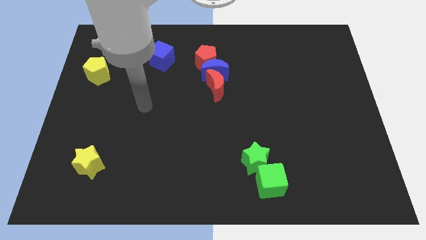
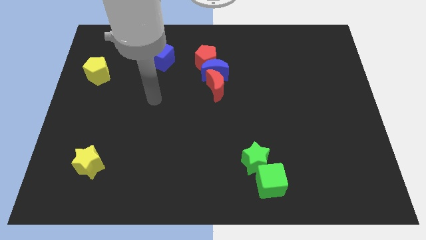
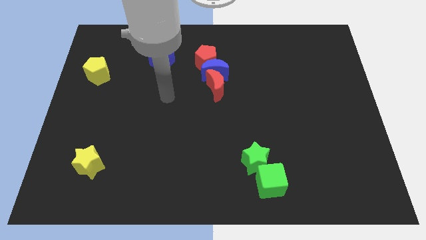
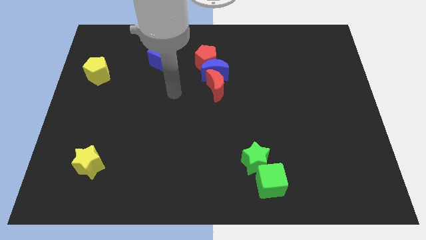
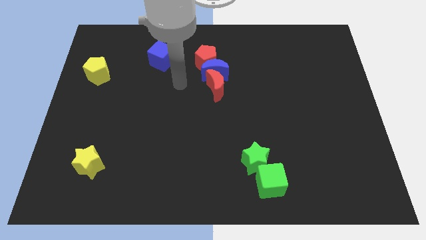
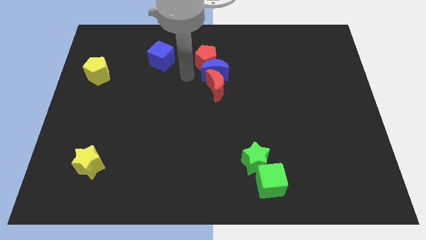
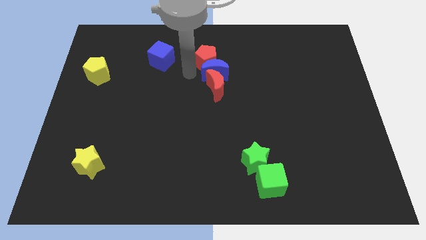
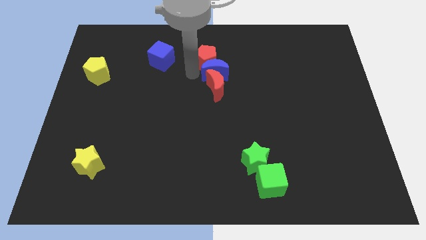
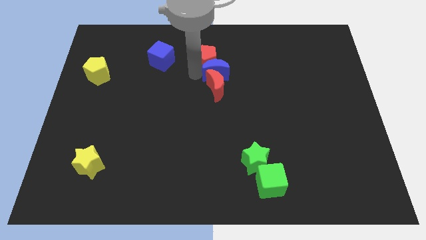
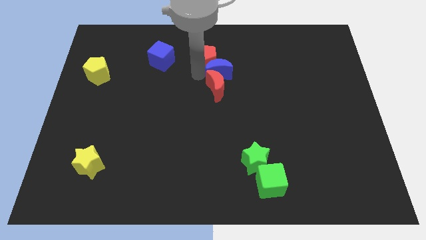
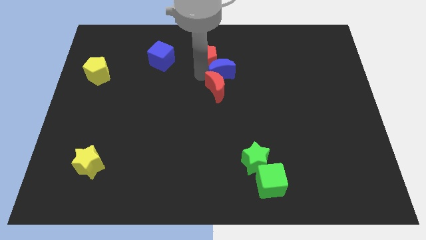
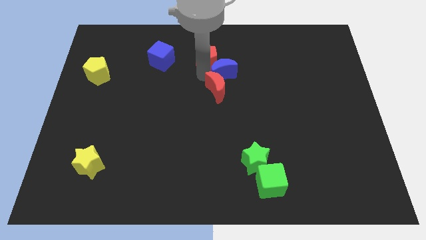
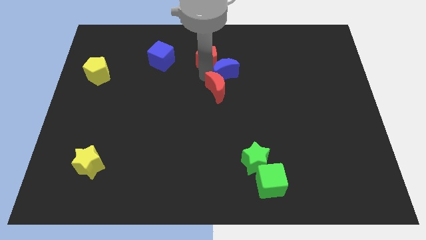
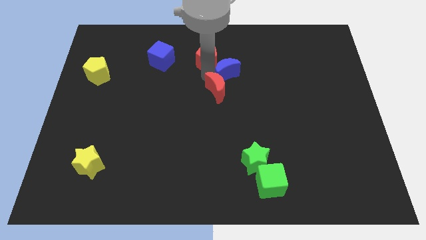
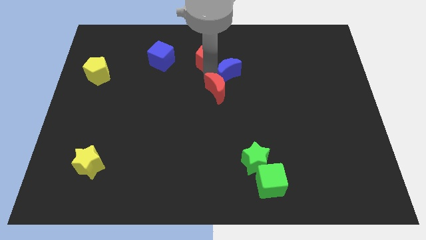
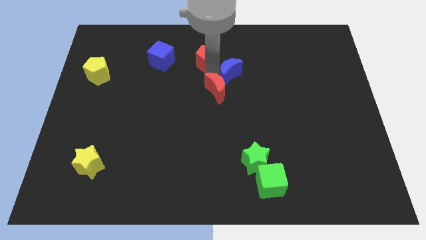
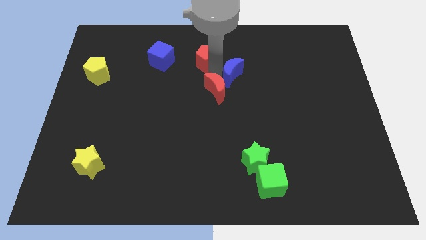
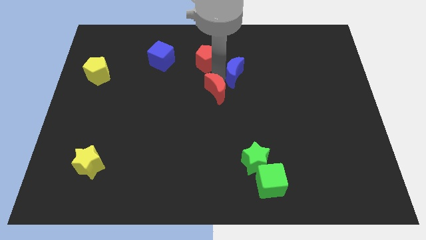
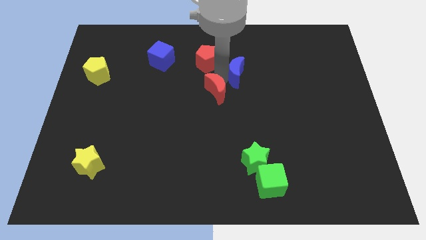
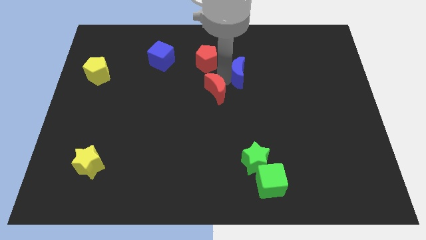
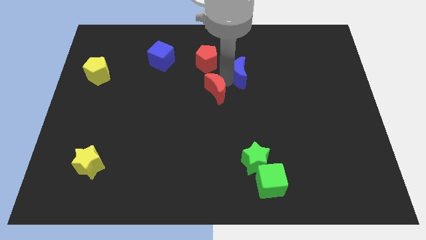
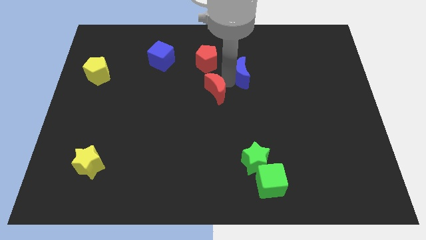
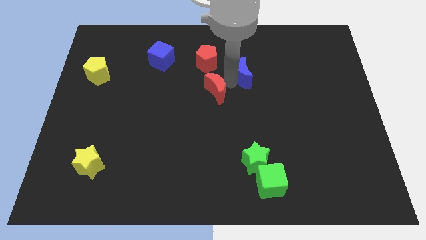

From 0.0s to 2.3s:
slightly move the blue moon right

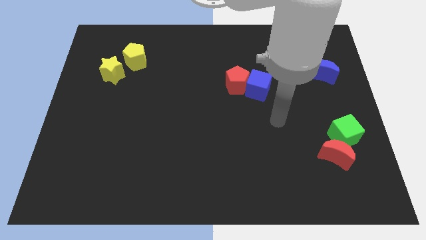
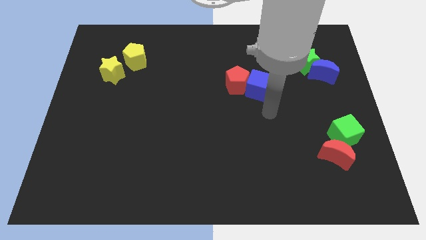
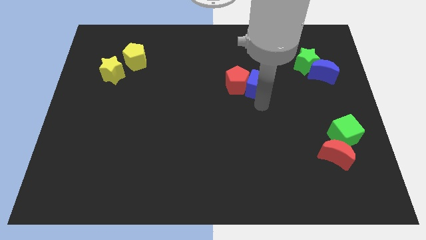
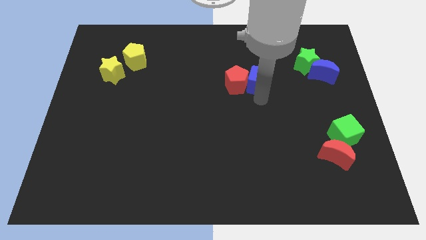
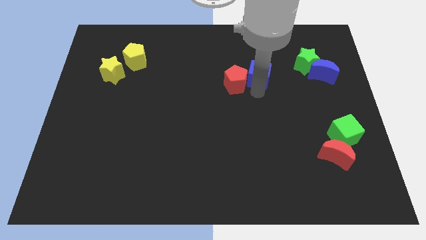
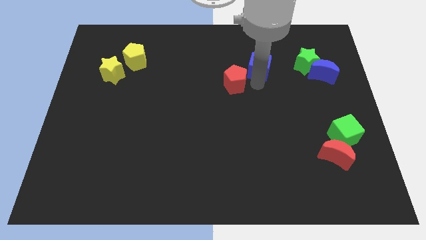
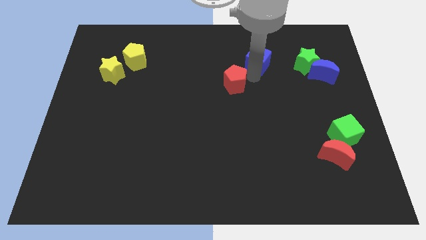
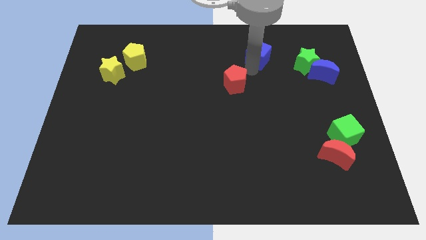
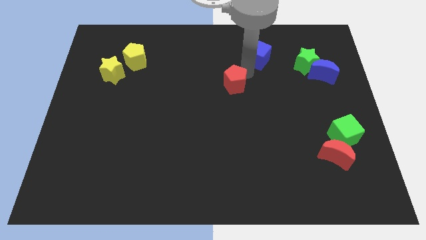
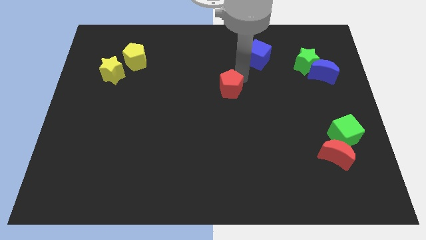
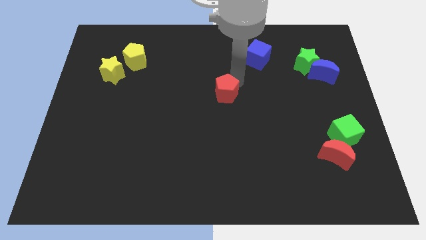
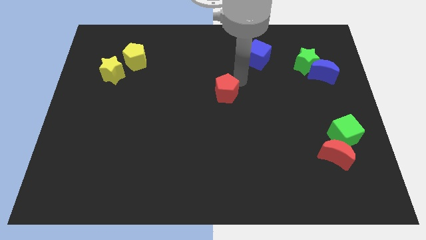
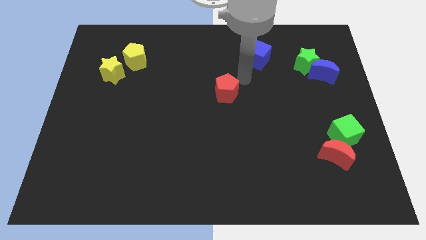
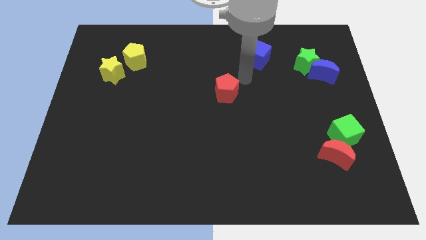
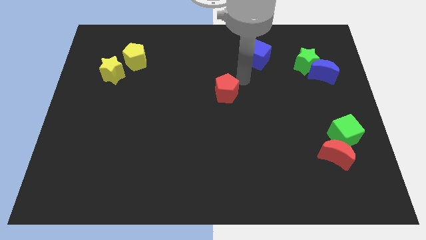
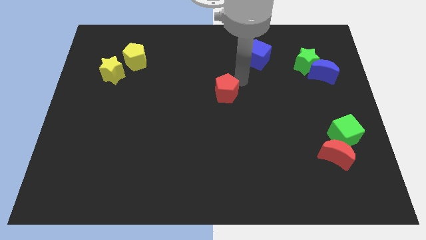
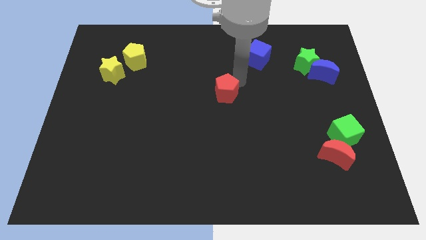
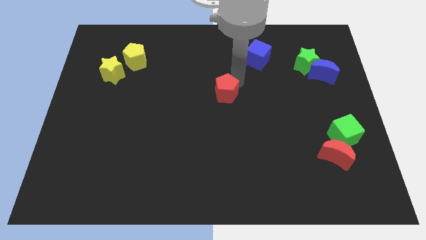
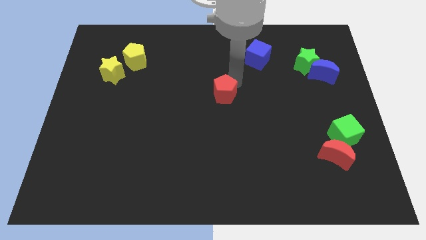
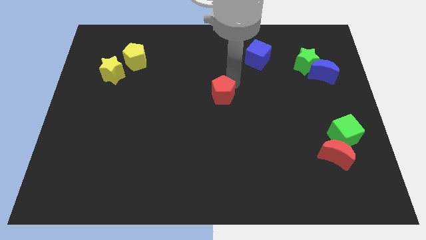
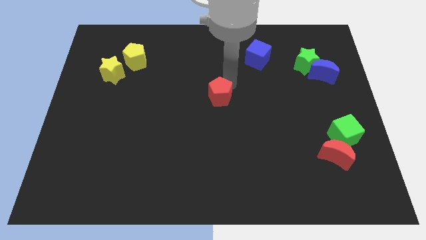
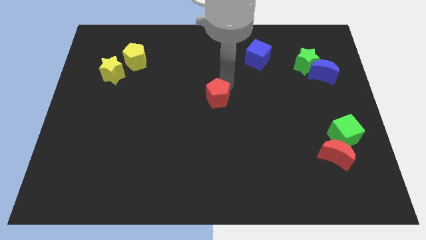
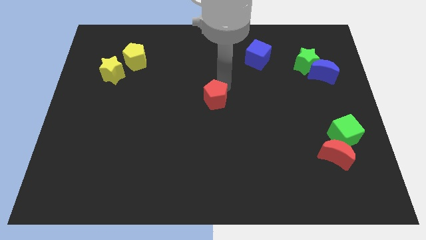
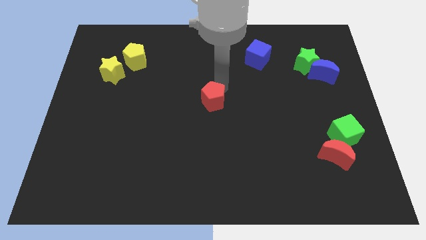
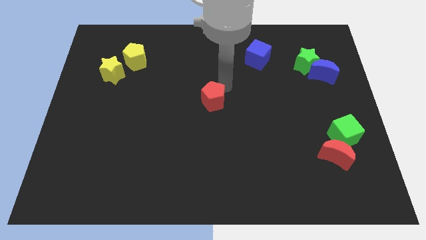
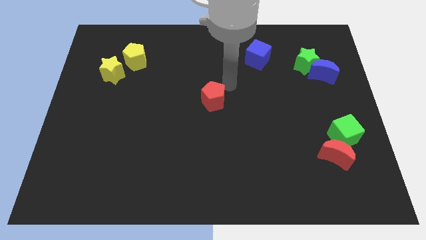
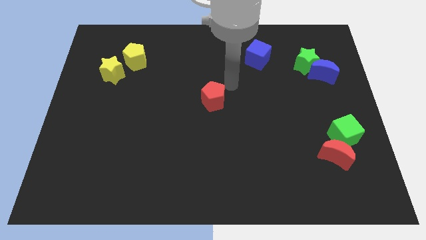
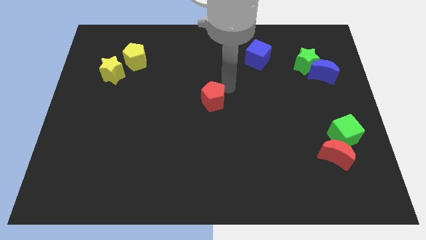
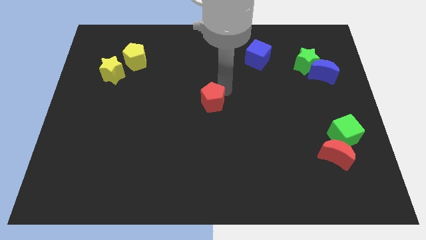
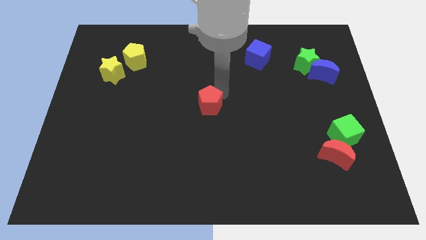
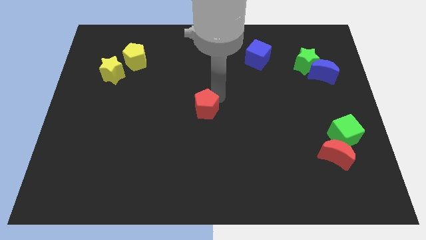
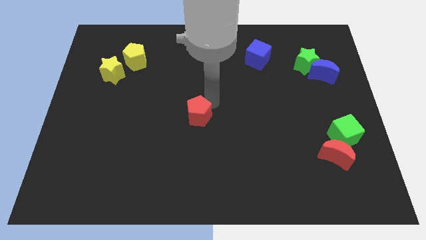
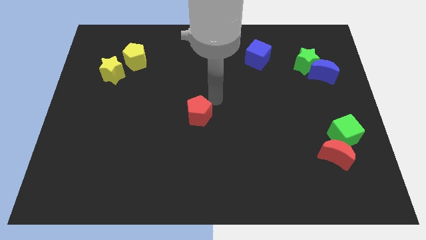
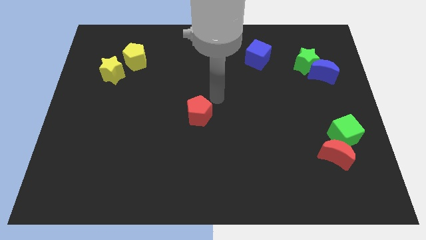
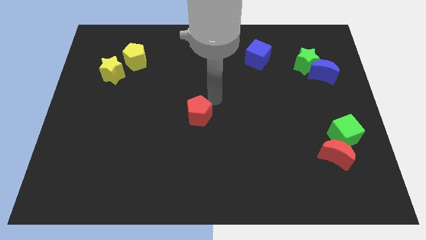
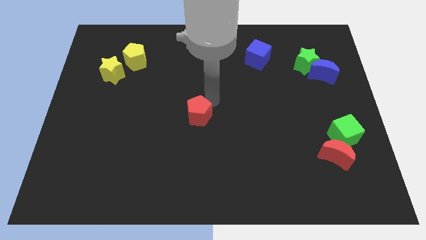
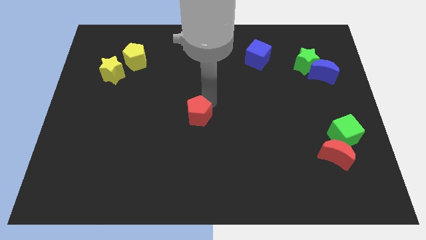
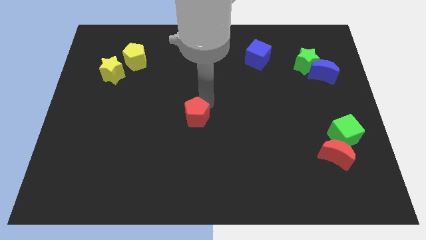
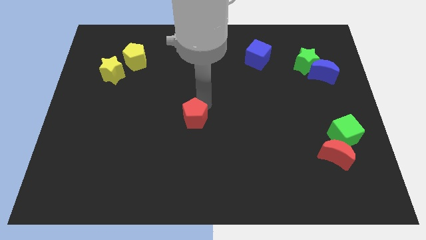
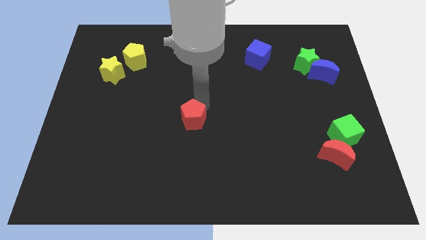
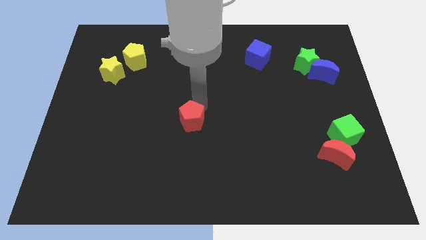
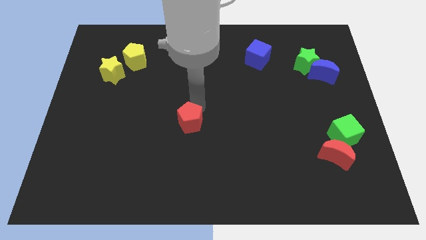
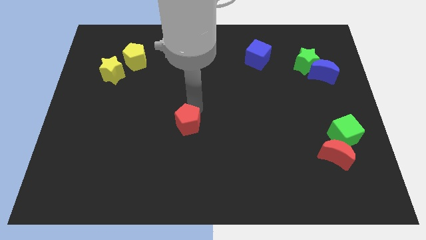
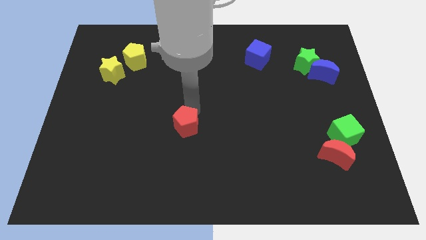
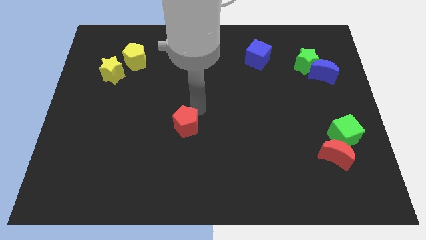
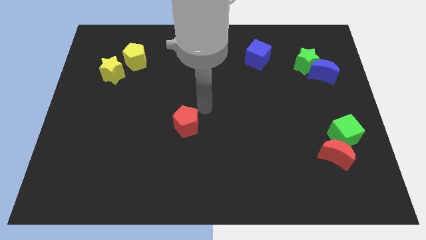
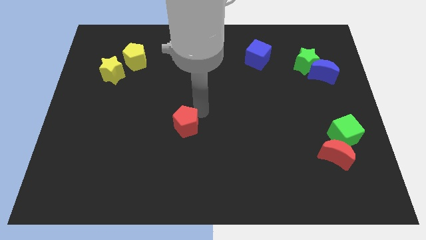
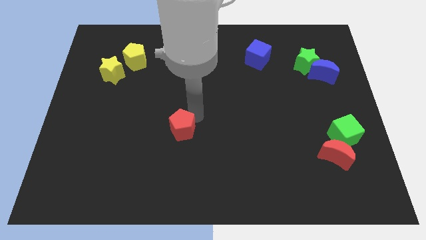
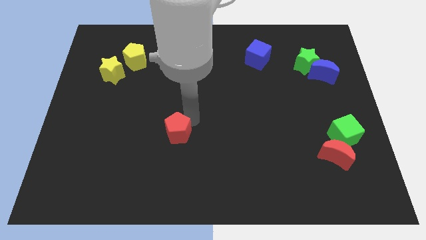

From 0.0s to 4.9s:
move the red pentagon diagonally downwards and to the left

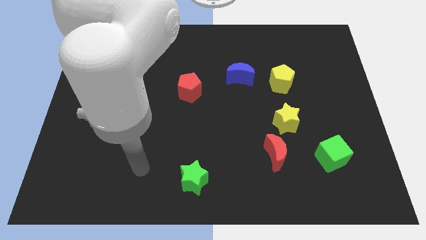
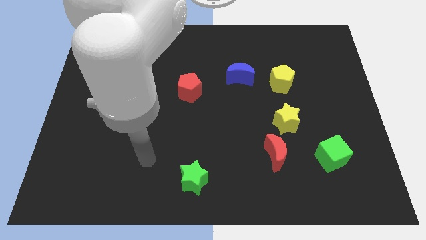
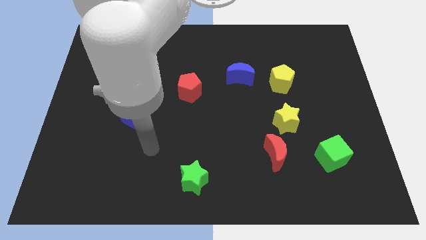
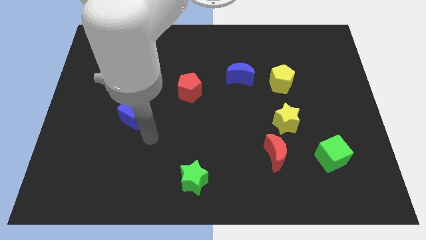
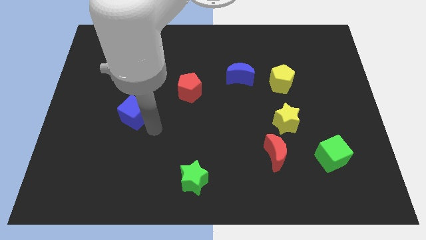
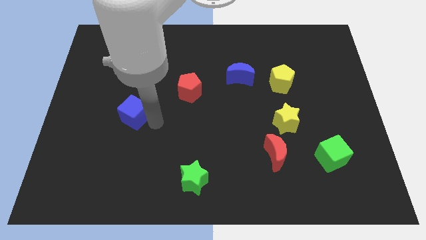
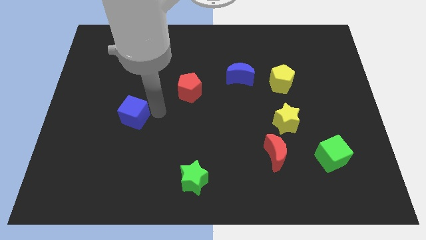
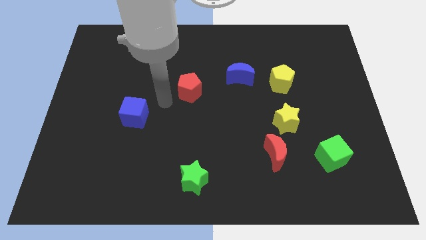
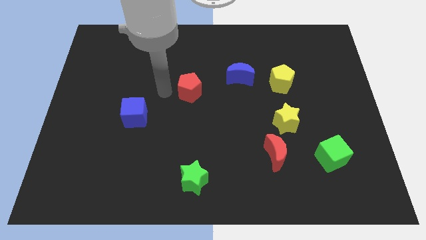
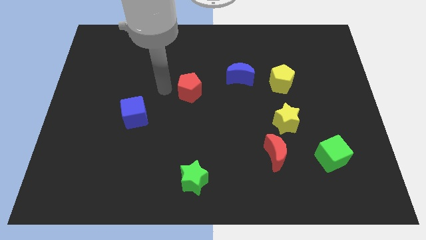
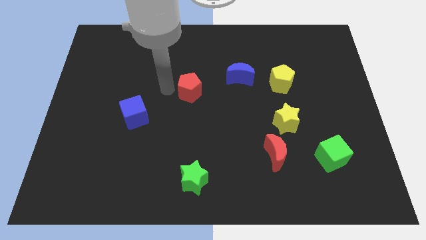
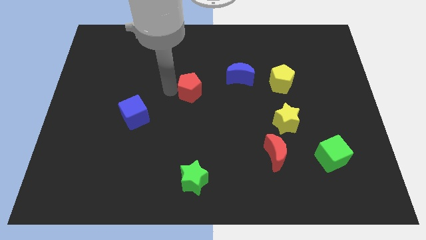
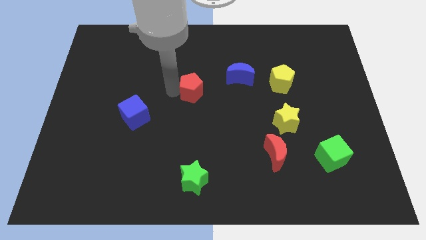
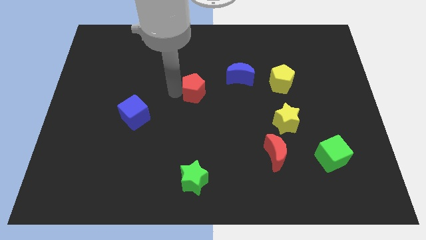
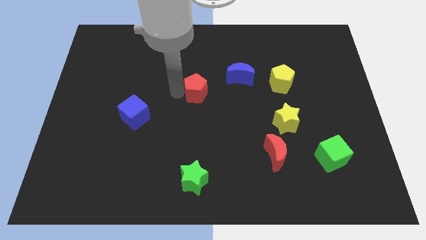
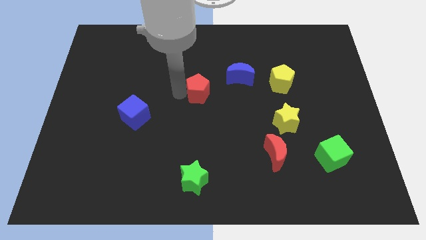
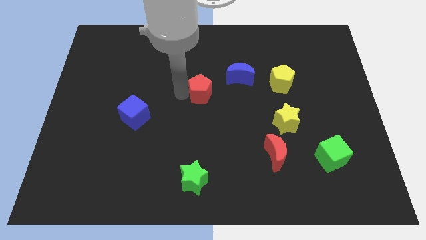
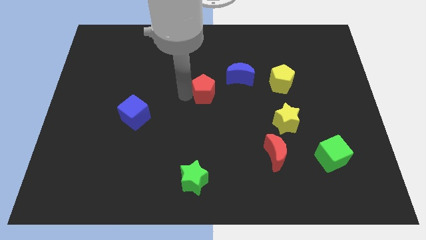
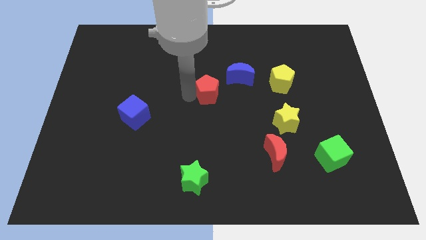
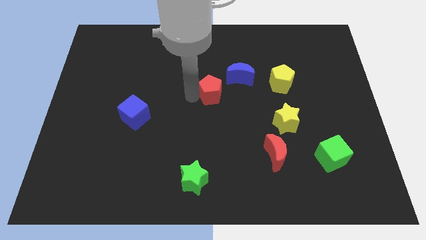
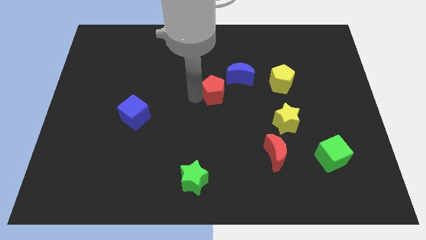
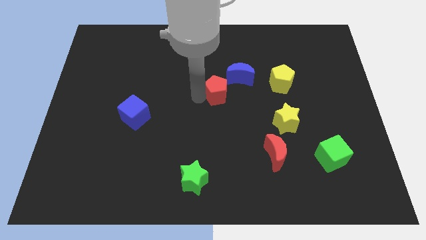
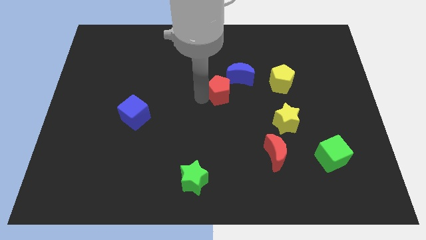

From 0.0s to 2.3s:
push the red pentagon to the right a little bit
